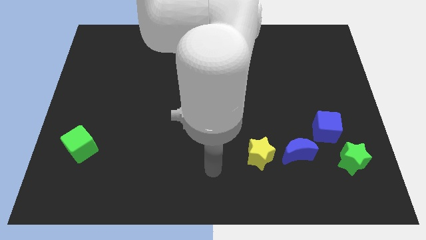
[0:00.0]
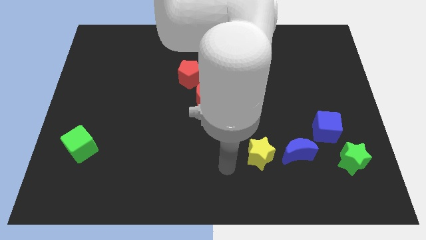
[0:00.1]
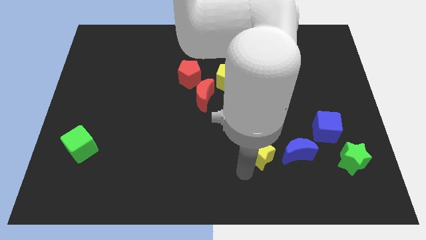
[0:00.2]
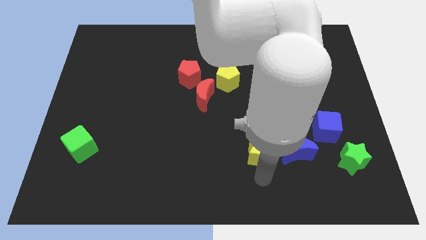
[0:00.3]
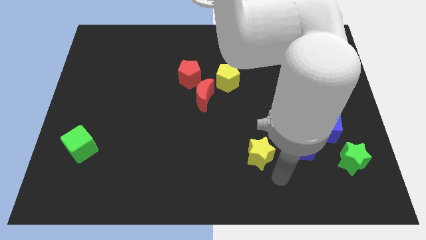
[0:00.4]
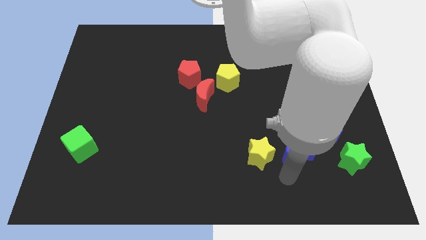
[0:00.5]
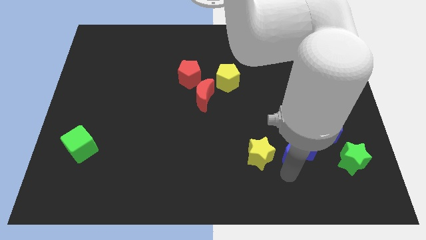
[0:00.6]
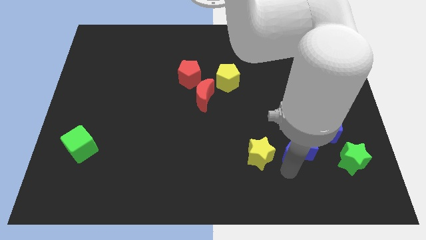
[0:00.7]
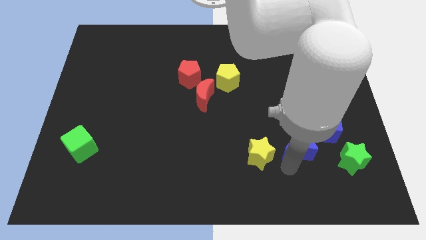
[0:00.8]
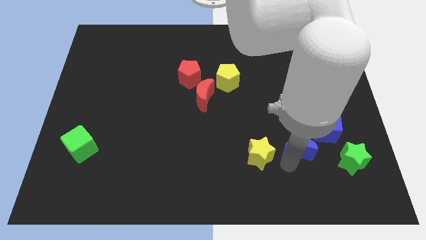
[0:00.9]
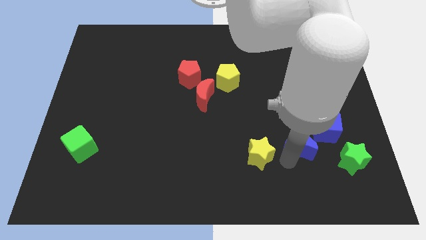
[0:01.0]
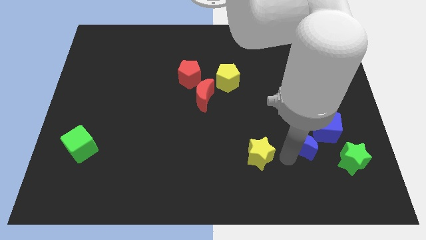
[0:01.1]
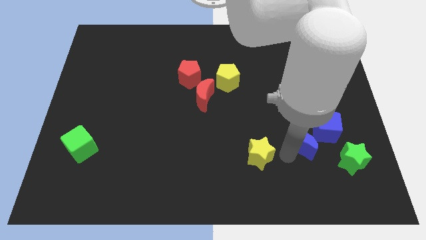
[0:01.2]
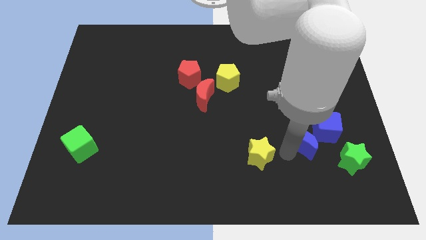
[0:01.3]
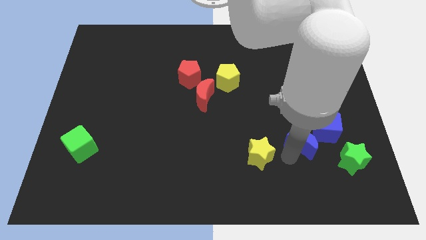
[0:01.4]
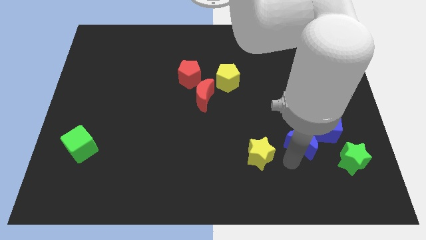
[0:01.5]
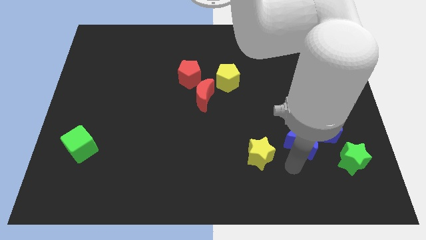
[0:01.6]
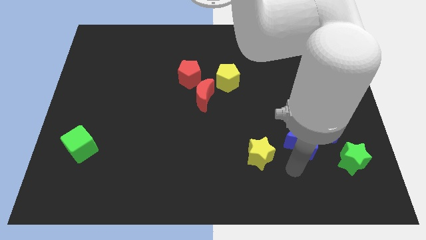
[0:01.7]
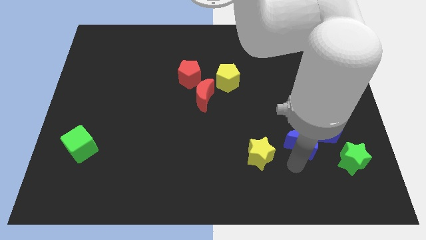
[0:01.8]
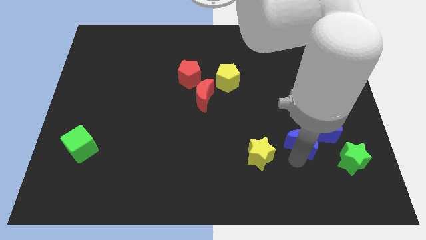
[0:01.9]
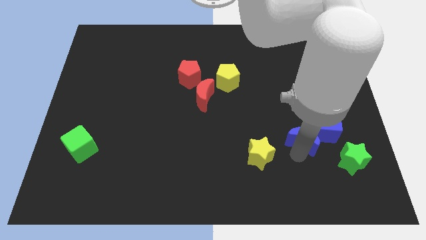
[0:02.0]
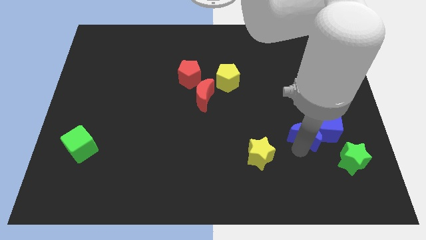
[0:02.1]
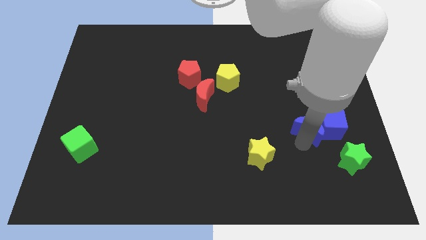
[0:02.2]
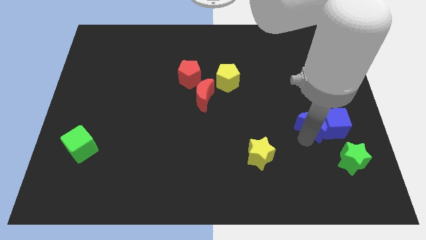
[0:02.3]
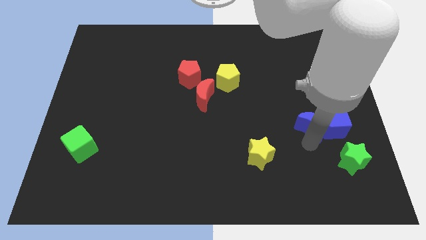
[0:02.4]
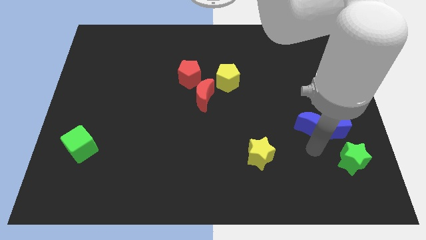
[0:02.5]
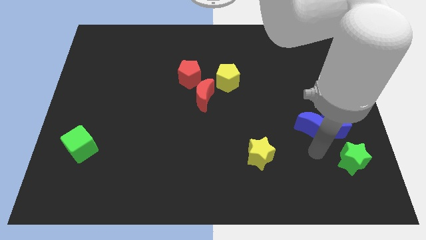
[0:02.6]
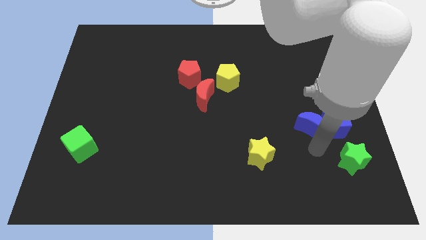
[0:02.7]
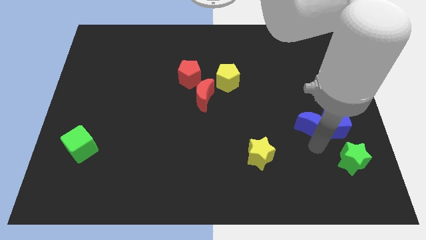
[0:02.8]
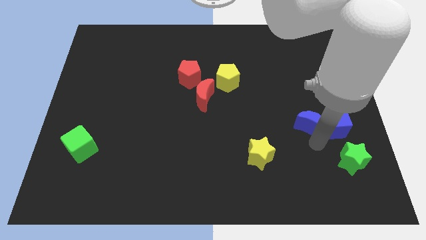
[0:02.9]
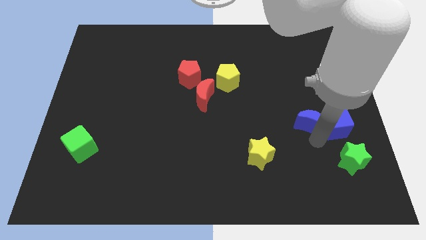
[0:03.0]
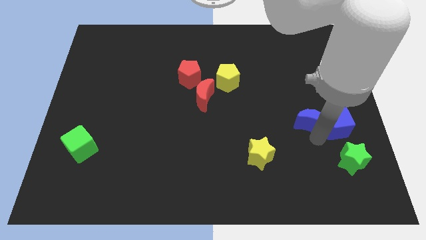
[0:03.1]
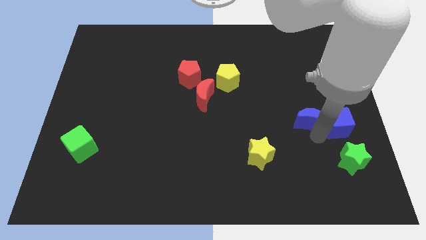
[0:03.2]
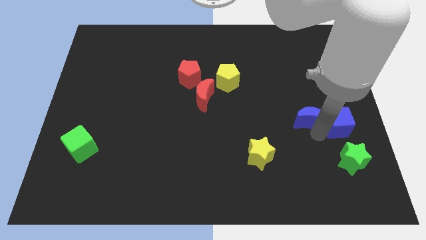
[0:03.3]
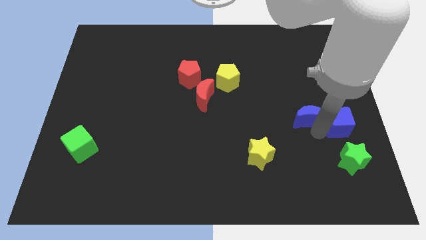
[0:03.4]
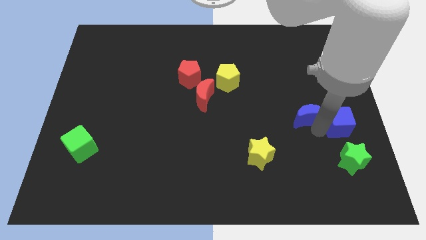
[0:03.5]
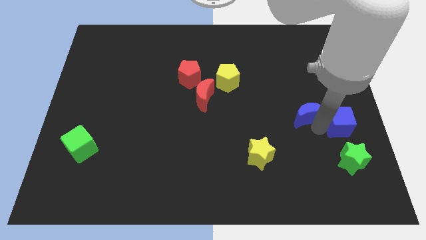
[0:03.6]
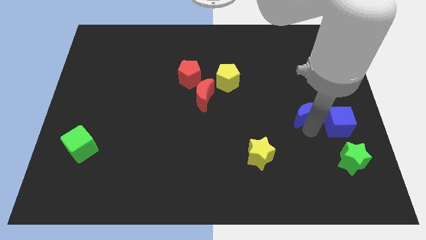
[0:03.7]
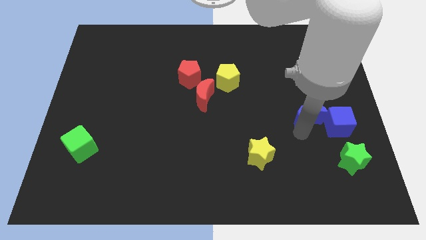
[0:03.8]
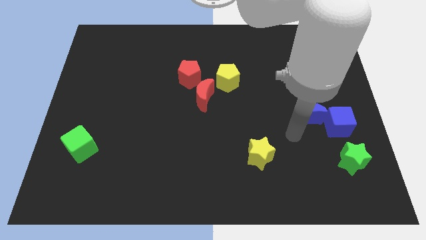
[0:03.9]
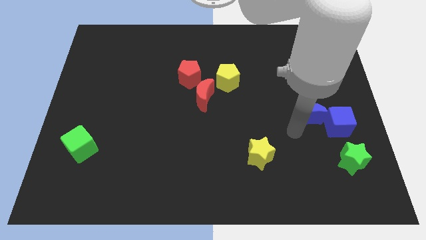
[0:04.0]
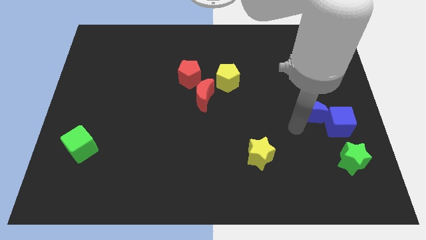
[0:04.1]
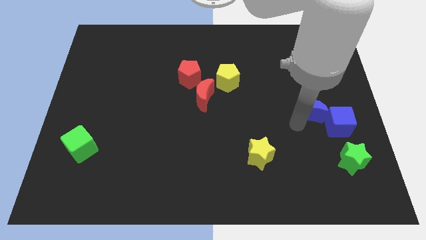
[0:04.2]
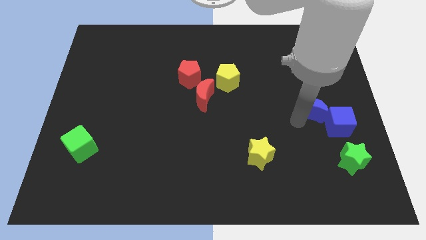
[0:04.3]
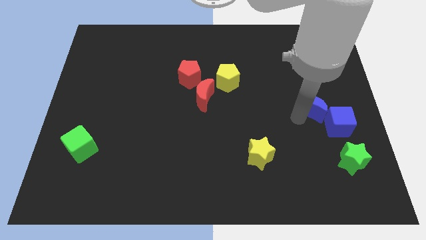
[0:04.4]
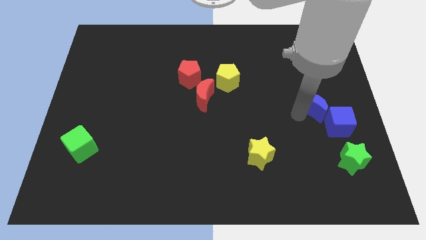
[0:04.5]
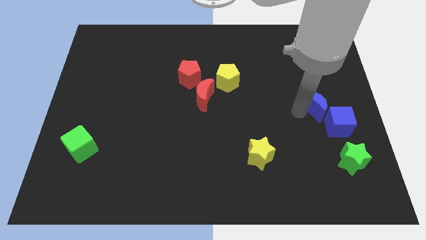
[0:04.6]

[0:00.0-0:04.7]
push the blue moon to the top side of the blue cube

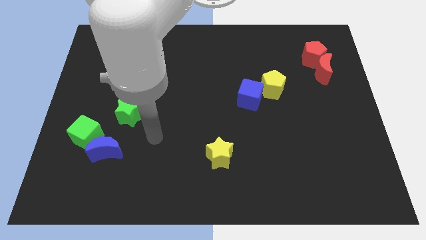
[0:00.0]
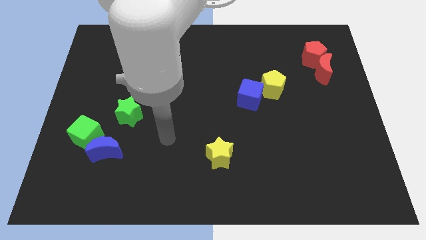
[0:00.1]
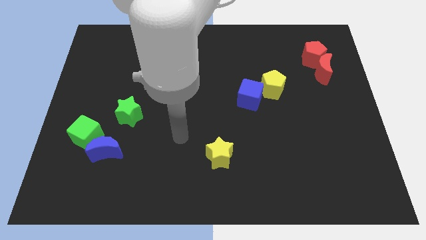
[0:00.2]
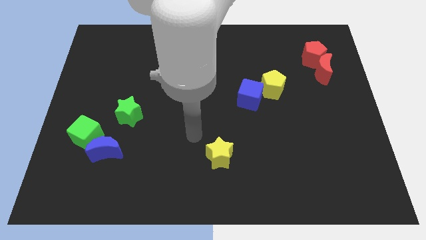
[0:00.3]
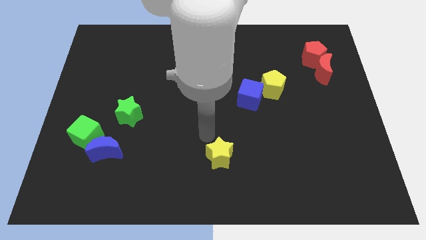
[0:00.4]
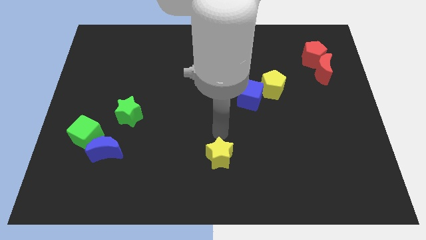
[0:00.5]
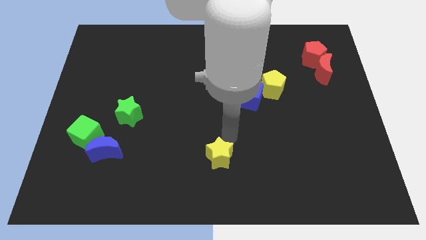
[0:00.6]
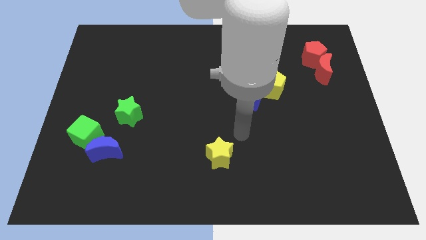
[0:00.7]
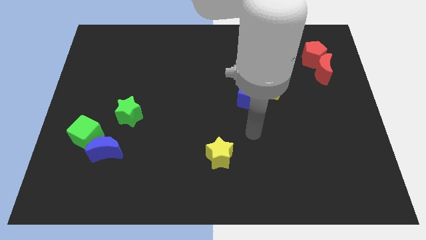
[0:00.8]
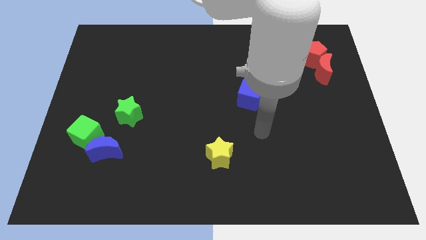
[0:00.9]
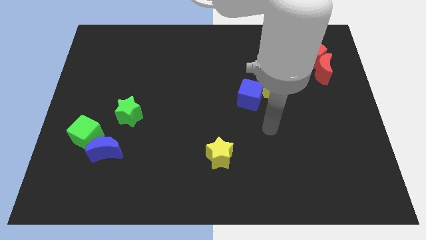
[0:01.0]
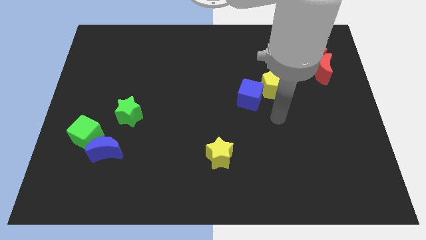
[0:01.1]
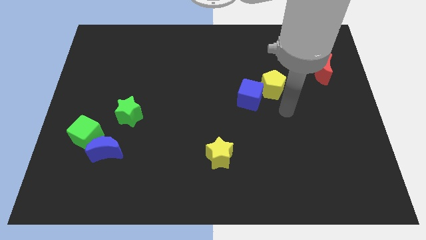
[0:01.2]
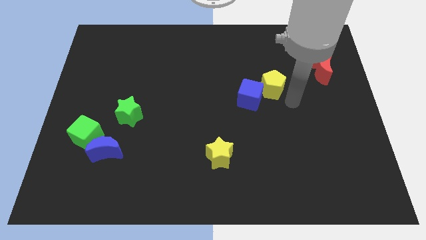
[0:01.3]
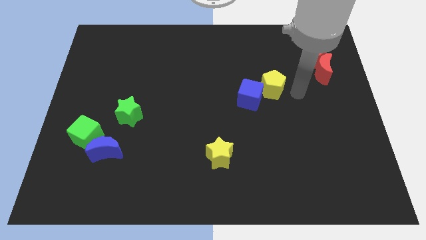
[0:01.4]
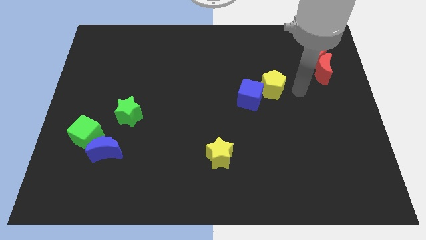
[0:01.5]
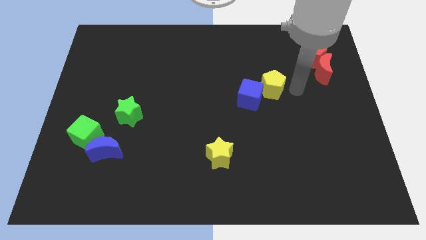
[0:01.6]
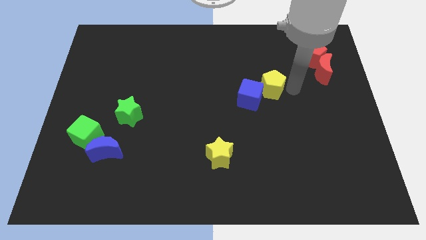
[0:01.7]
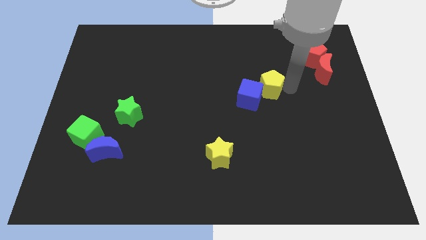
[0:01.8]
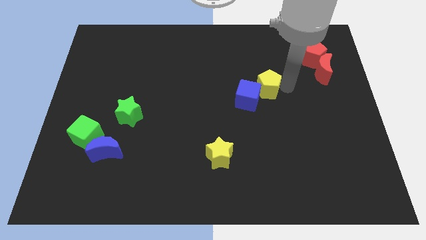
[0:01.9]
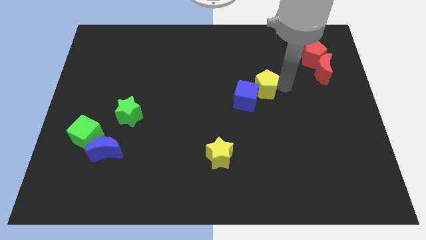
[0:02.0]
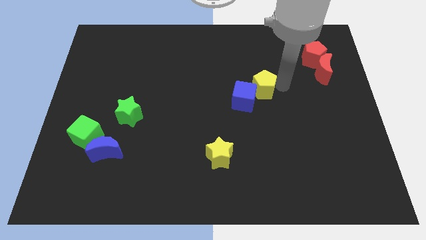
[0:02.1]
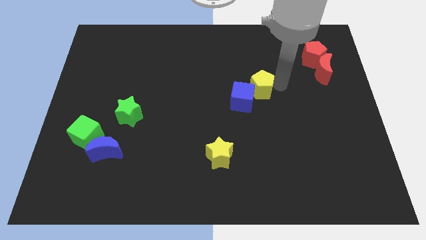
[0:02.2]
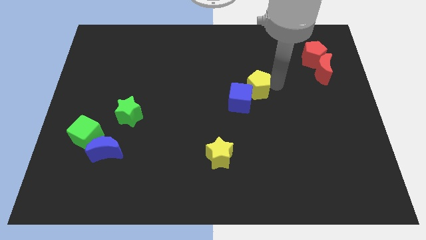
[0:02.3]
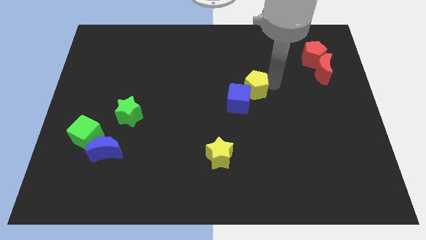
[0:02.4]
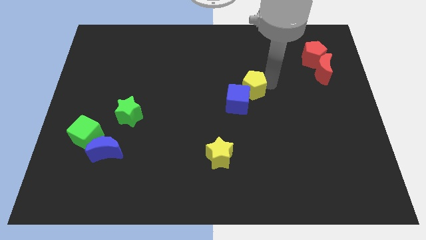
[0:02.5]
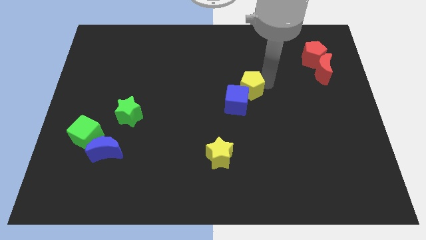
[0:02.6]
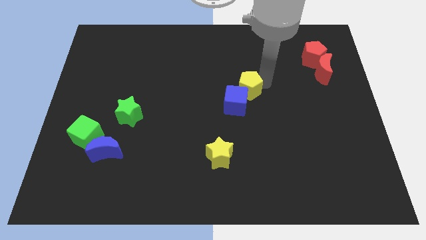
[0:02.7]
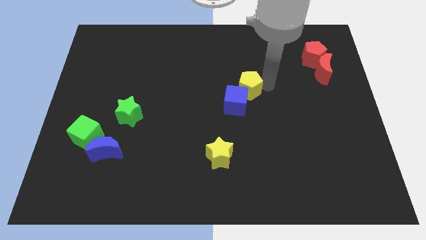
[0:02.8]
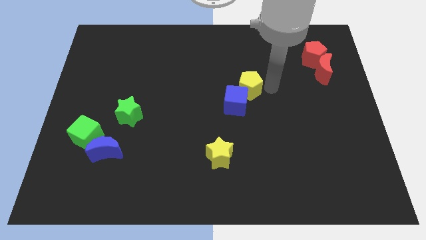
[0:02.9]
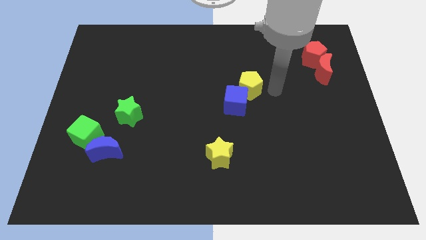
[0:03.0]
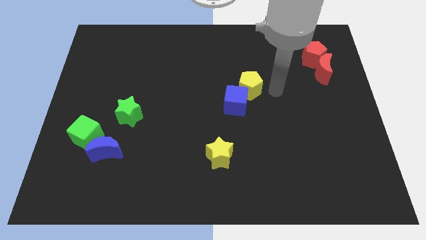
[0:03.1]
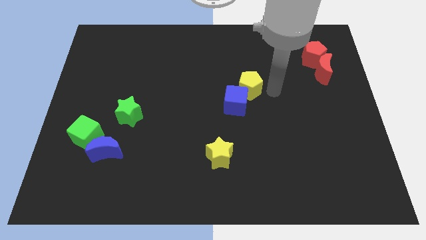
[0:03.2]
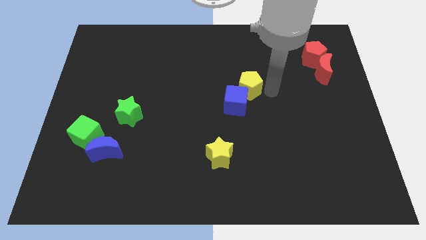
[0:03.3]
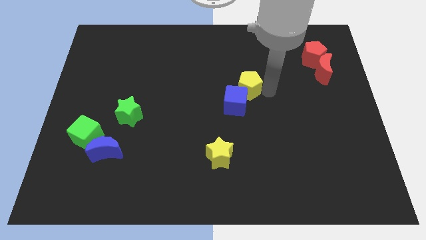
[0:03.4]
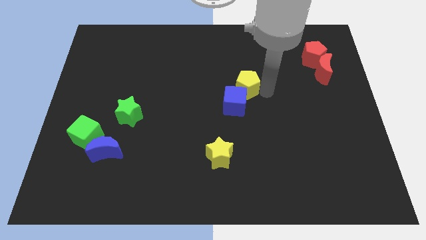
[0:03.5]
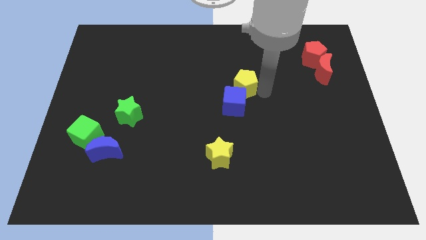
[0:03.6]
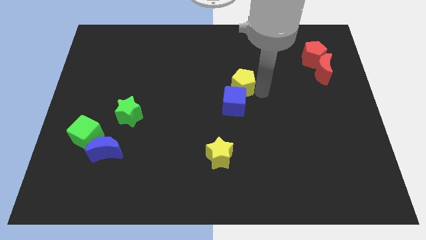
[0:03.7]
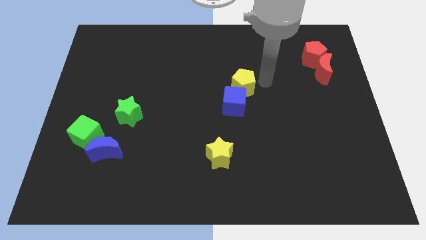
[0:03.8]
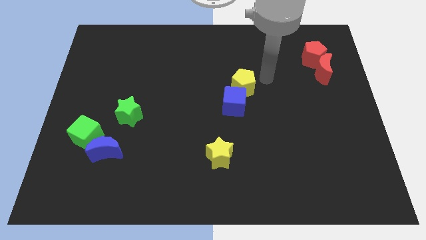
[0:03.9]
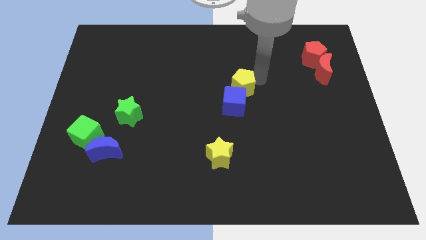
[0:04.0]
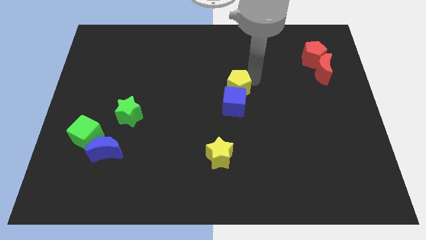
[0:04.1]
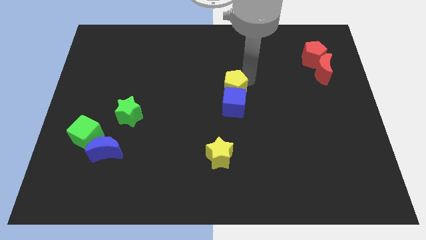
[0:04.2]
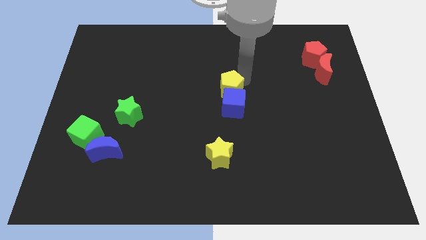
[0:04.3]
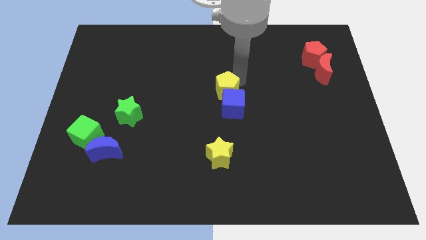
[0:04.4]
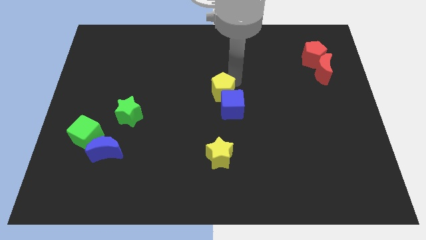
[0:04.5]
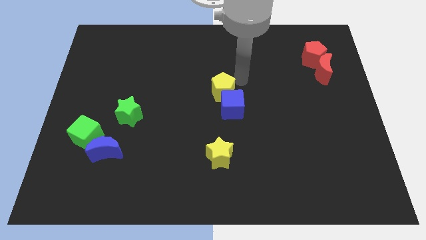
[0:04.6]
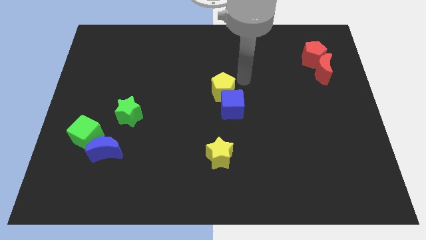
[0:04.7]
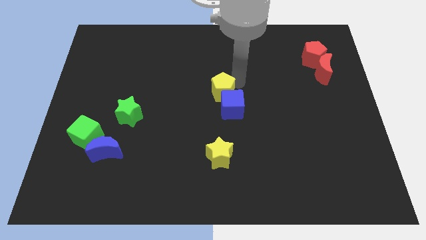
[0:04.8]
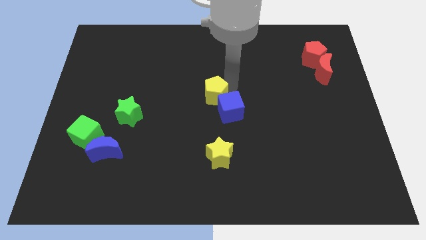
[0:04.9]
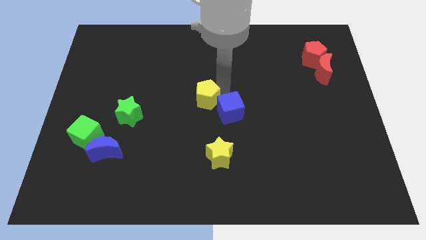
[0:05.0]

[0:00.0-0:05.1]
push the yellow pentagon to the left of the blue cube
